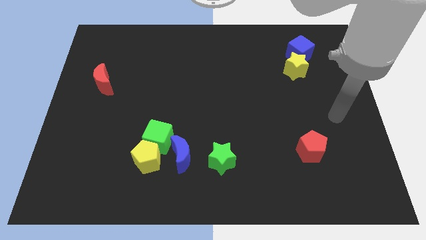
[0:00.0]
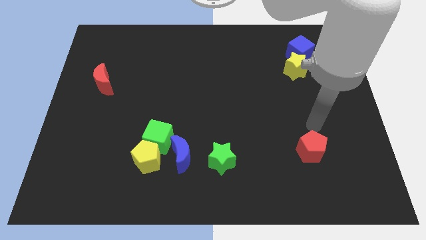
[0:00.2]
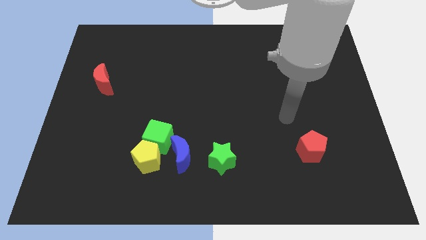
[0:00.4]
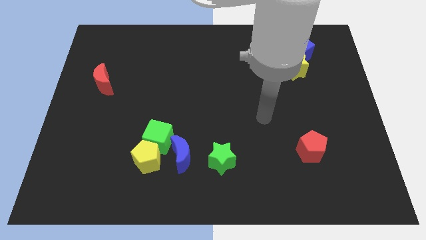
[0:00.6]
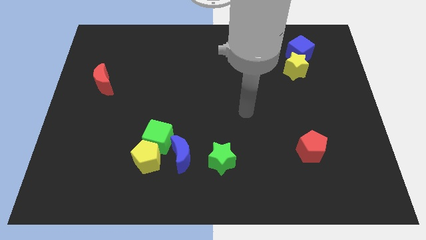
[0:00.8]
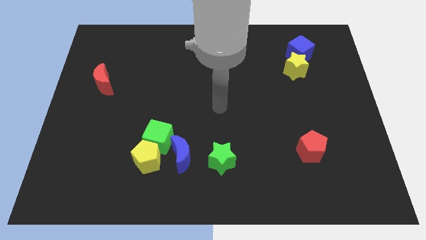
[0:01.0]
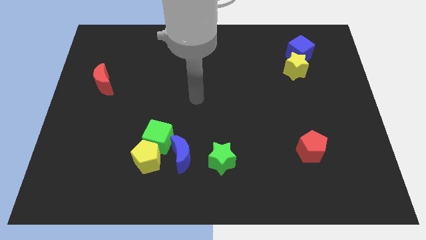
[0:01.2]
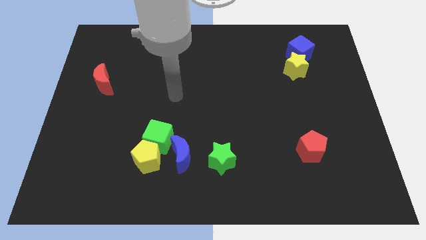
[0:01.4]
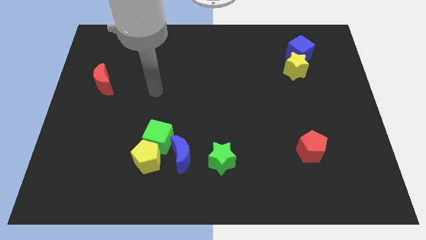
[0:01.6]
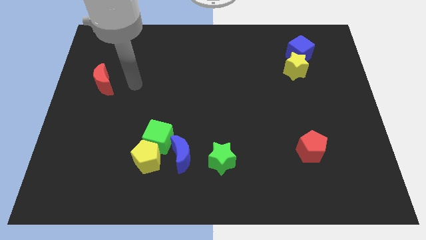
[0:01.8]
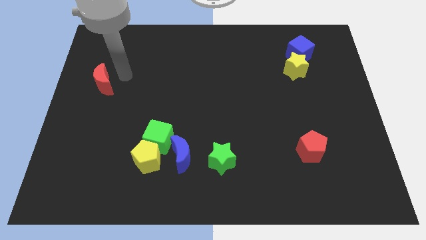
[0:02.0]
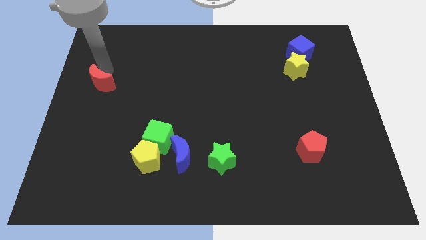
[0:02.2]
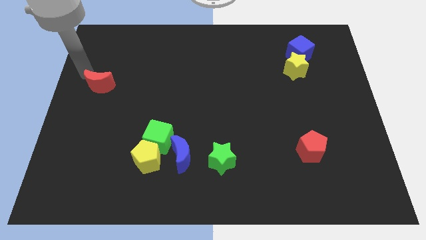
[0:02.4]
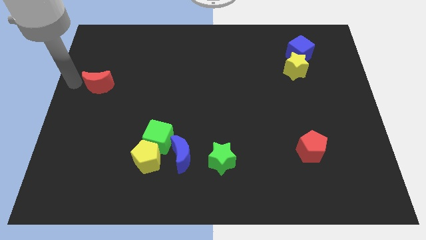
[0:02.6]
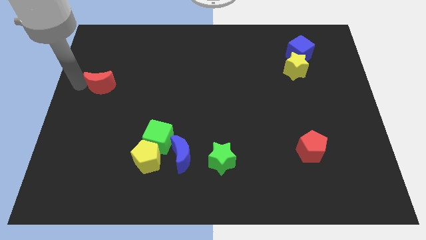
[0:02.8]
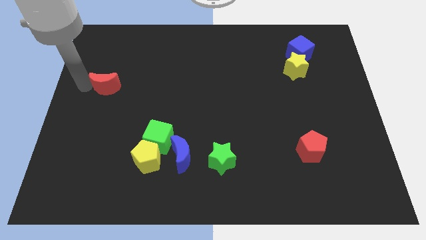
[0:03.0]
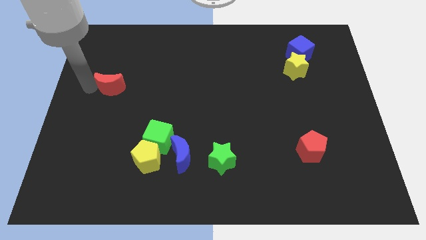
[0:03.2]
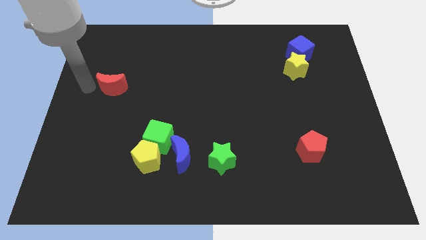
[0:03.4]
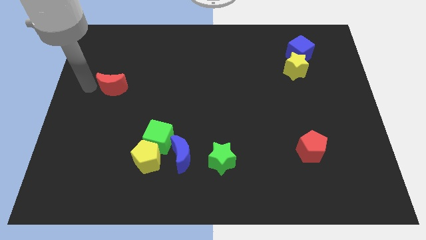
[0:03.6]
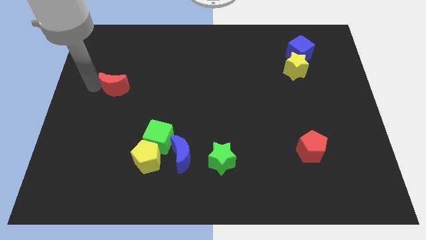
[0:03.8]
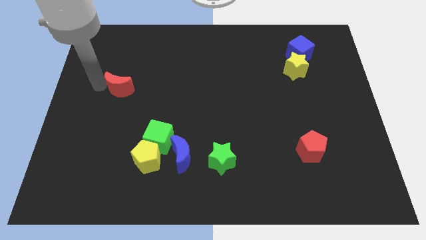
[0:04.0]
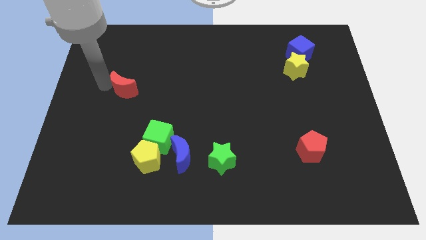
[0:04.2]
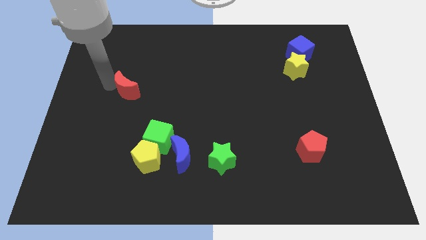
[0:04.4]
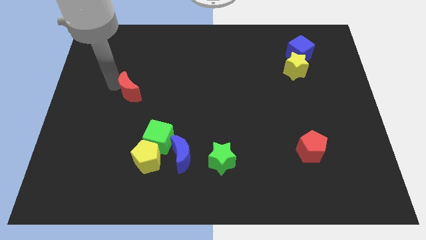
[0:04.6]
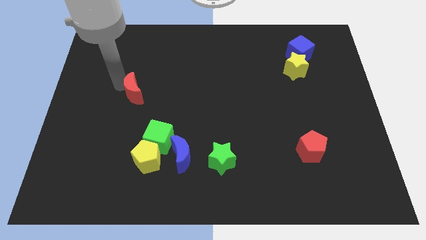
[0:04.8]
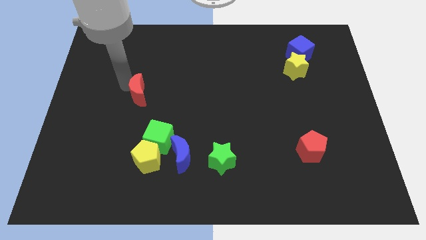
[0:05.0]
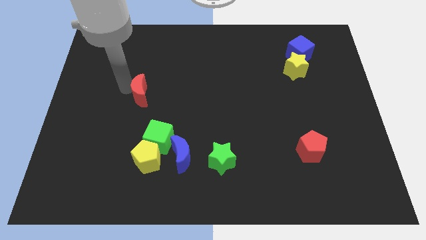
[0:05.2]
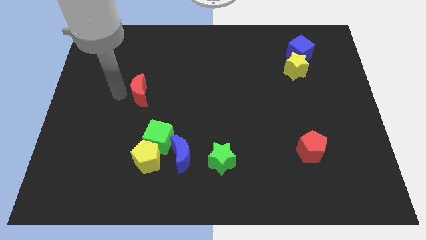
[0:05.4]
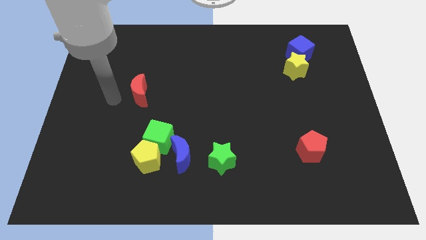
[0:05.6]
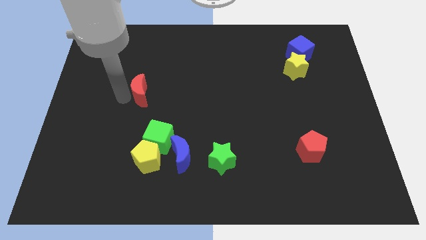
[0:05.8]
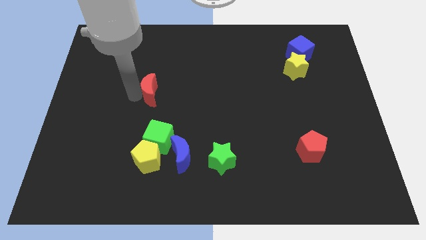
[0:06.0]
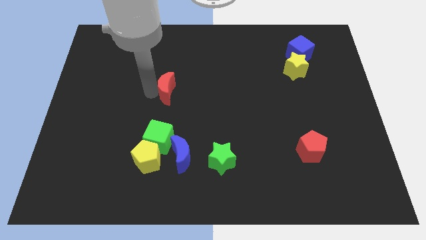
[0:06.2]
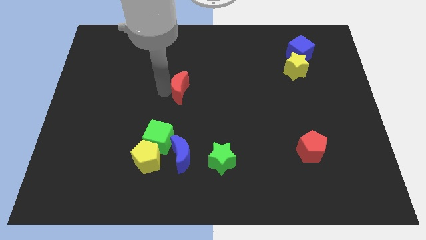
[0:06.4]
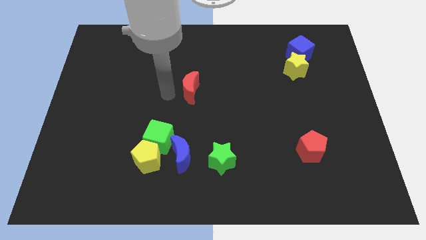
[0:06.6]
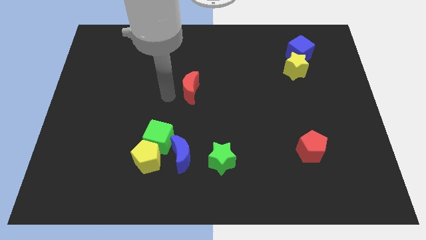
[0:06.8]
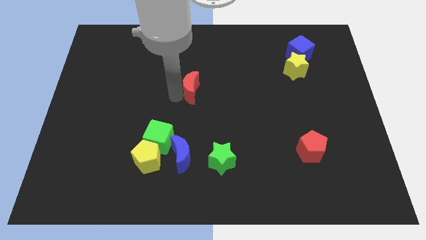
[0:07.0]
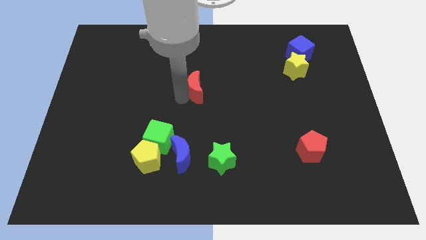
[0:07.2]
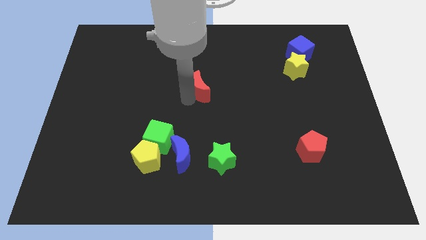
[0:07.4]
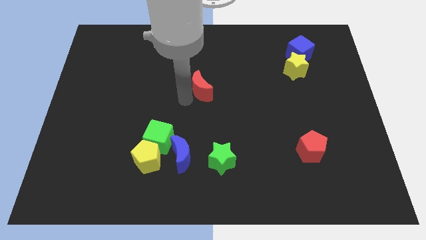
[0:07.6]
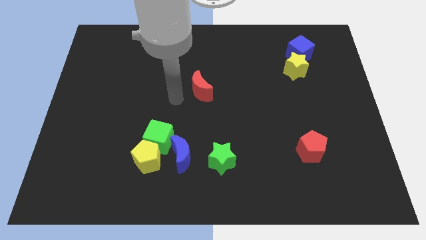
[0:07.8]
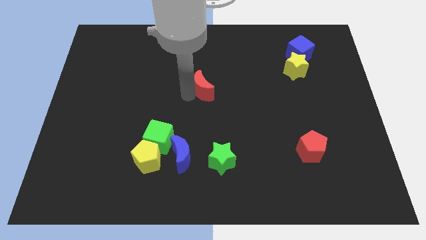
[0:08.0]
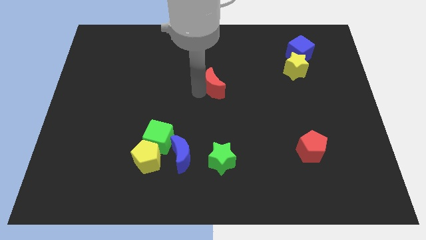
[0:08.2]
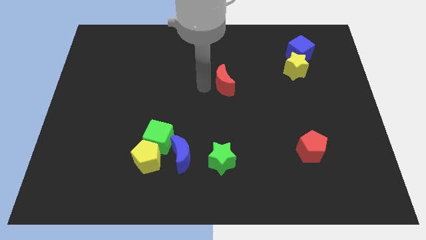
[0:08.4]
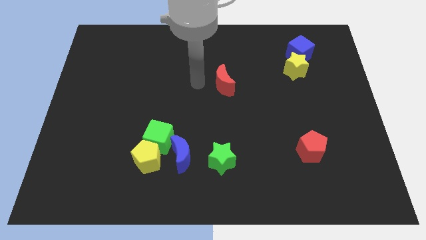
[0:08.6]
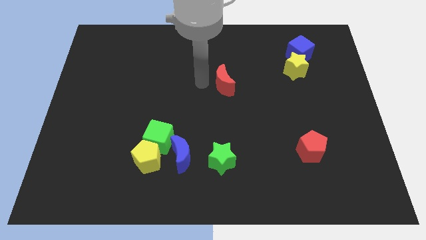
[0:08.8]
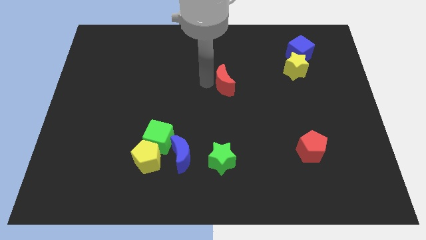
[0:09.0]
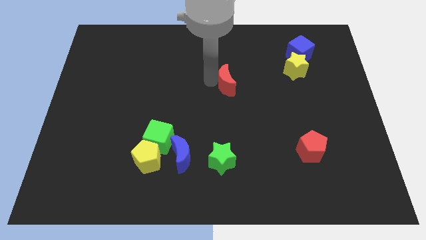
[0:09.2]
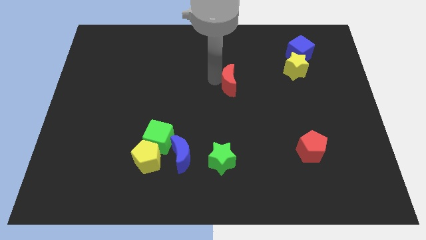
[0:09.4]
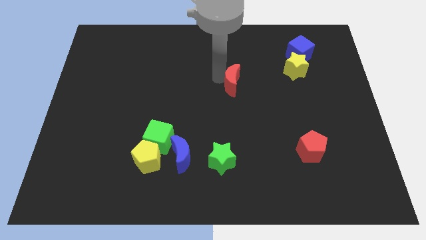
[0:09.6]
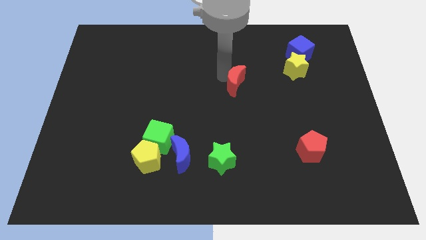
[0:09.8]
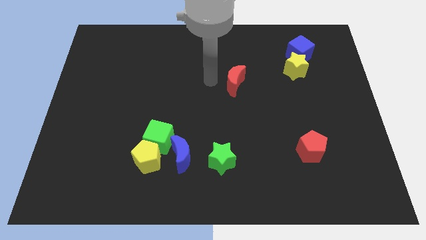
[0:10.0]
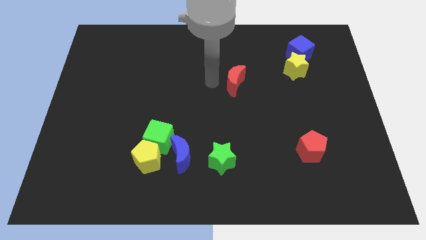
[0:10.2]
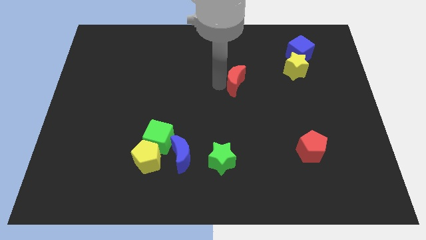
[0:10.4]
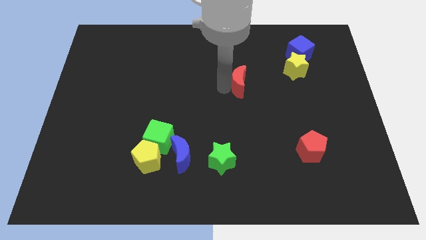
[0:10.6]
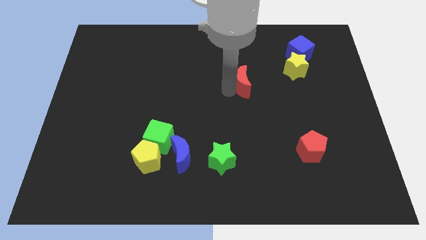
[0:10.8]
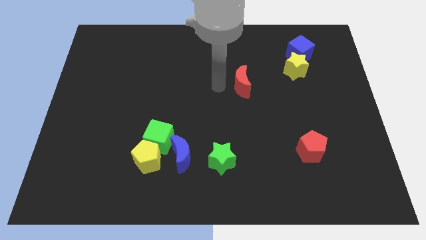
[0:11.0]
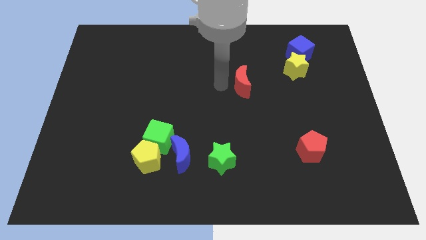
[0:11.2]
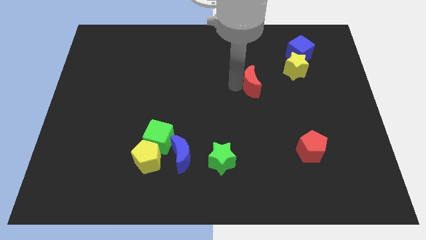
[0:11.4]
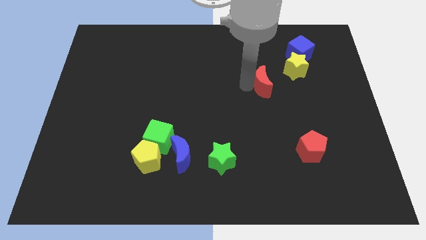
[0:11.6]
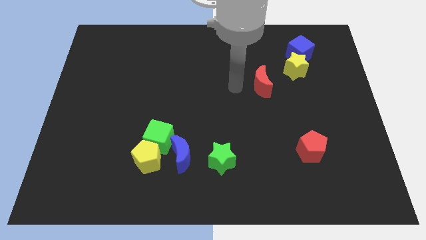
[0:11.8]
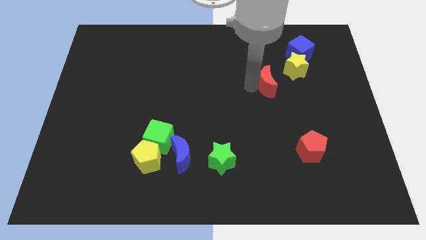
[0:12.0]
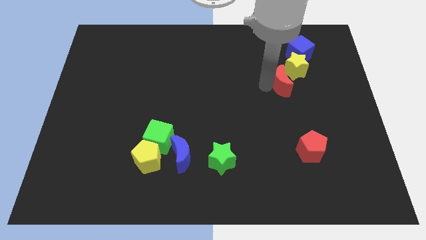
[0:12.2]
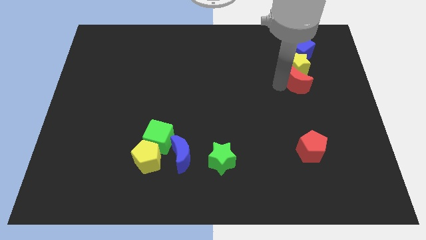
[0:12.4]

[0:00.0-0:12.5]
move the red moon to the bottom right of the yellow star
